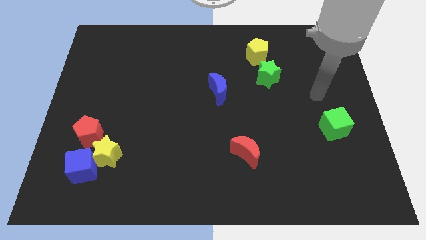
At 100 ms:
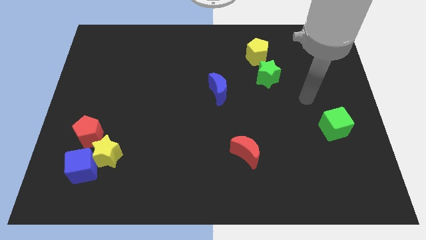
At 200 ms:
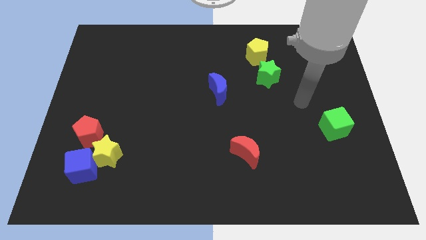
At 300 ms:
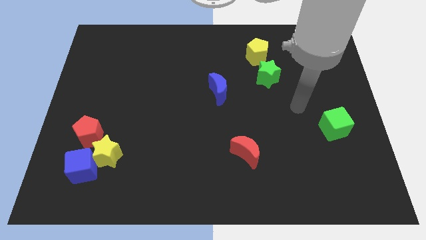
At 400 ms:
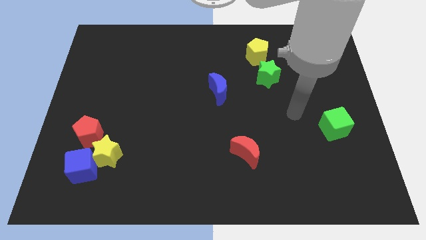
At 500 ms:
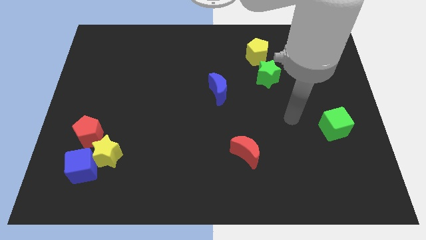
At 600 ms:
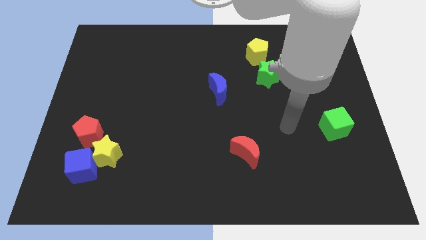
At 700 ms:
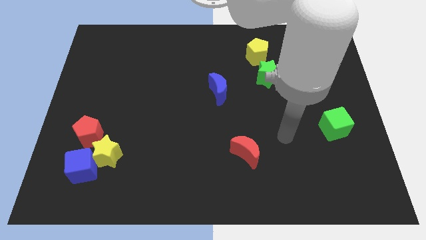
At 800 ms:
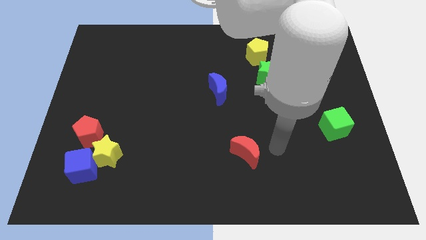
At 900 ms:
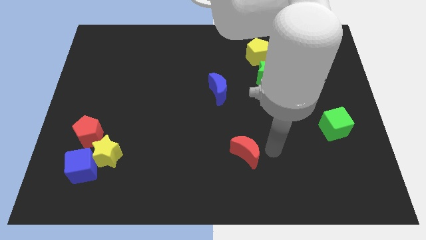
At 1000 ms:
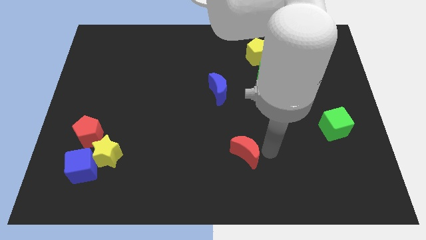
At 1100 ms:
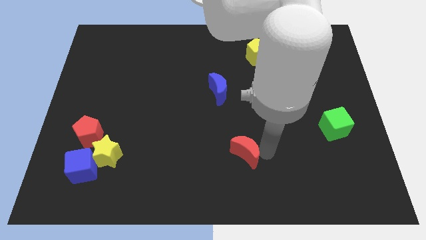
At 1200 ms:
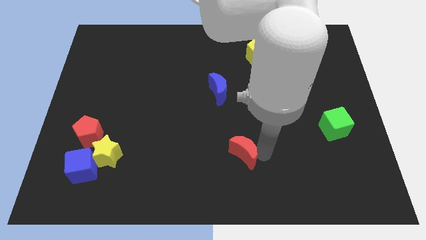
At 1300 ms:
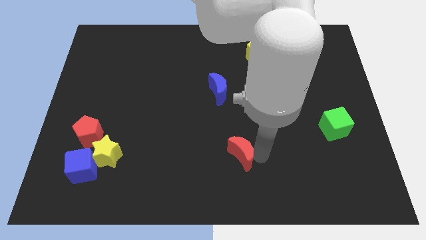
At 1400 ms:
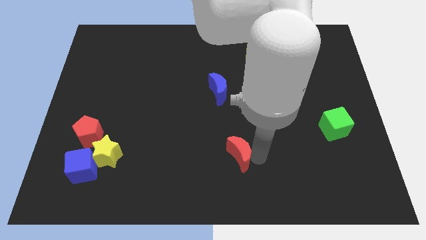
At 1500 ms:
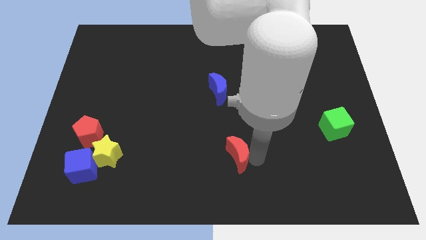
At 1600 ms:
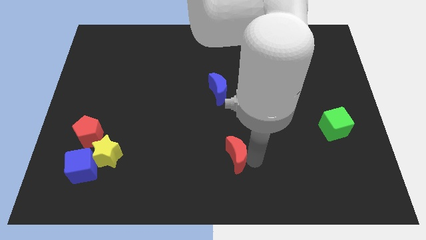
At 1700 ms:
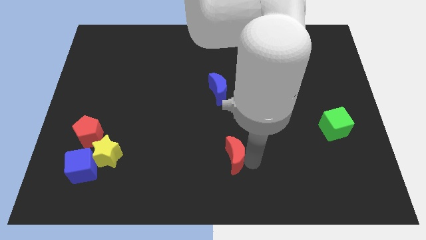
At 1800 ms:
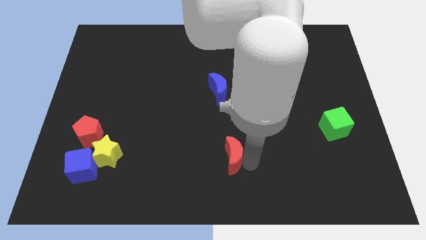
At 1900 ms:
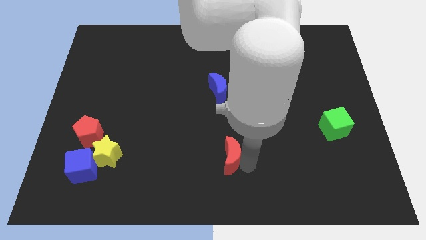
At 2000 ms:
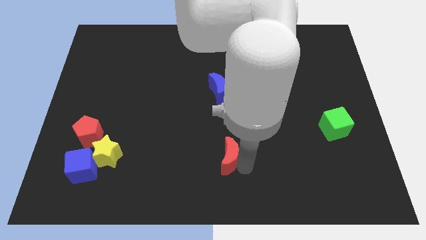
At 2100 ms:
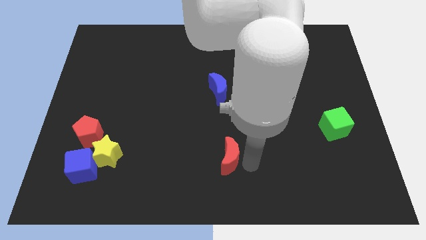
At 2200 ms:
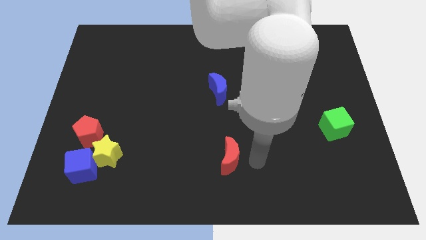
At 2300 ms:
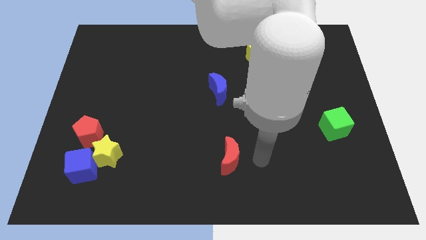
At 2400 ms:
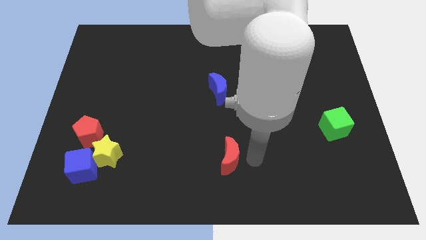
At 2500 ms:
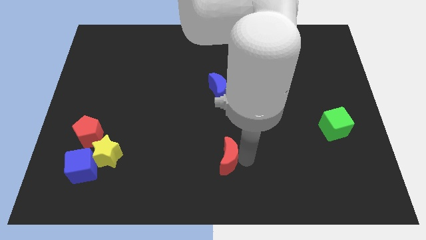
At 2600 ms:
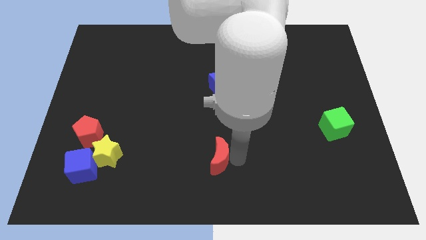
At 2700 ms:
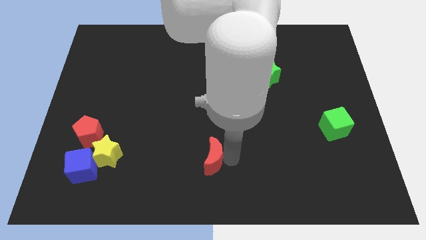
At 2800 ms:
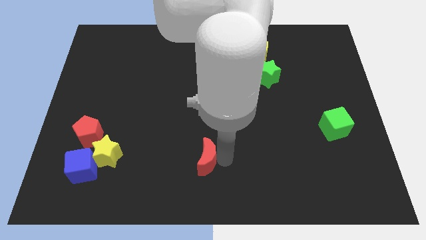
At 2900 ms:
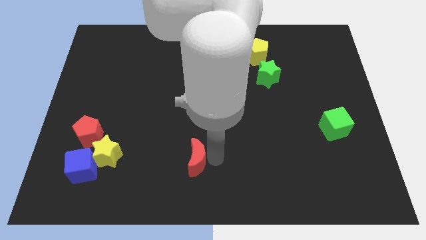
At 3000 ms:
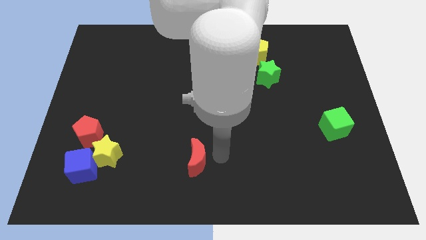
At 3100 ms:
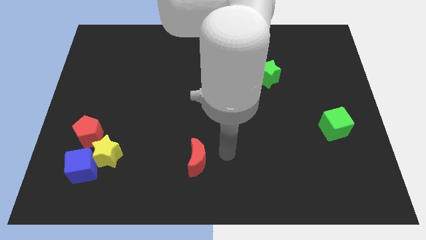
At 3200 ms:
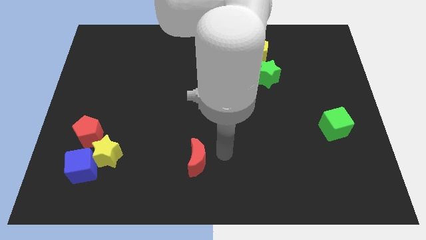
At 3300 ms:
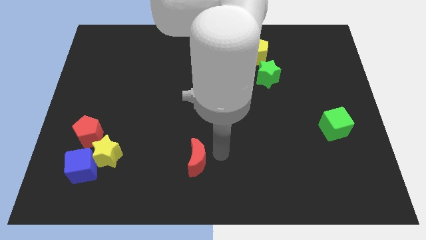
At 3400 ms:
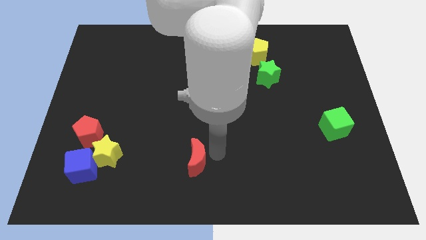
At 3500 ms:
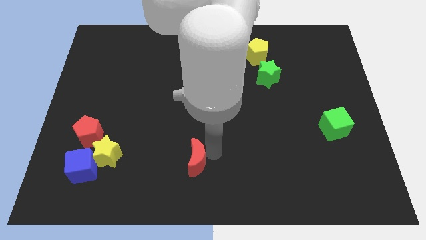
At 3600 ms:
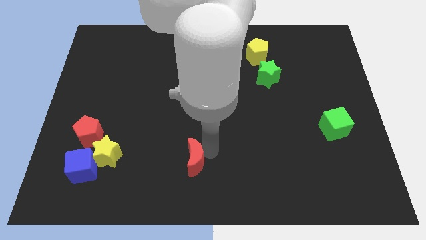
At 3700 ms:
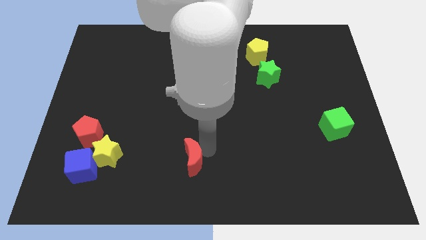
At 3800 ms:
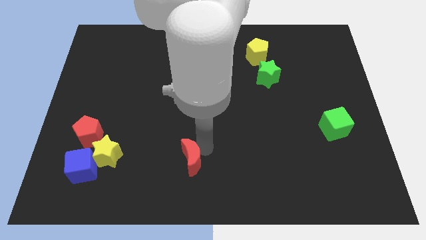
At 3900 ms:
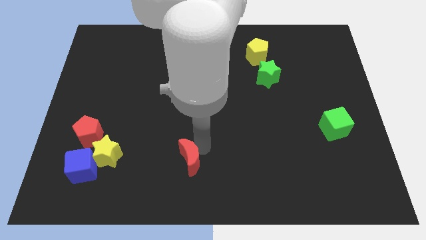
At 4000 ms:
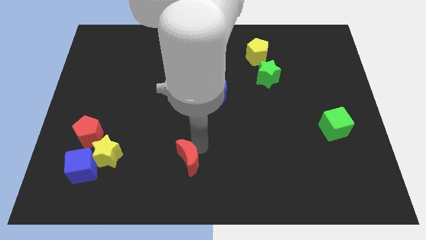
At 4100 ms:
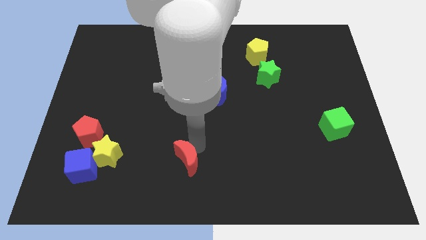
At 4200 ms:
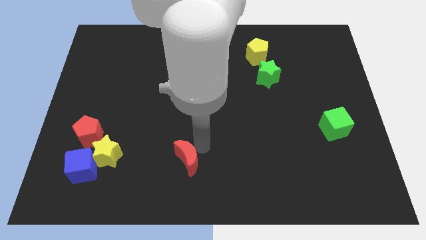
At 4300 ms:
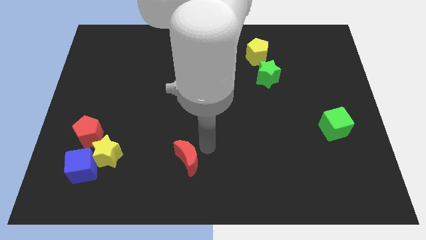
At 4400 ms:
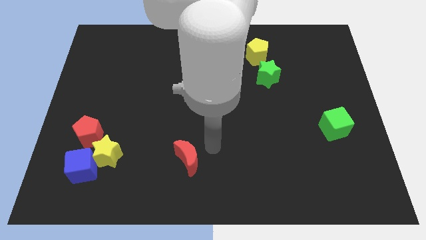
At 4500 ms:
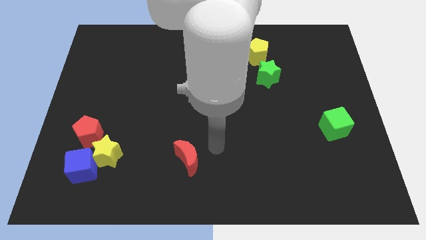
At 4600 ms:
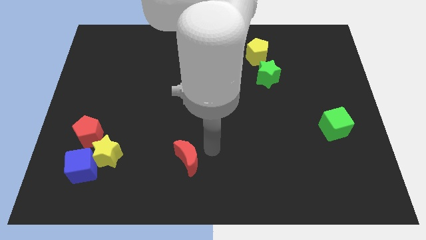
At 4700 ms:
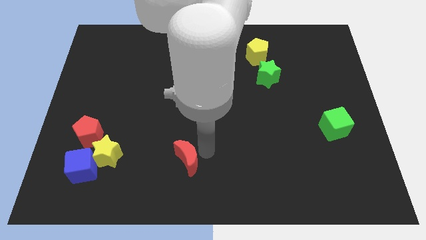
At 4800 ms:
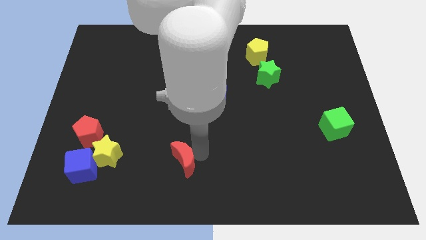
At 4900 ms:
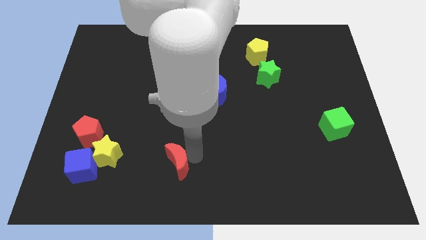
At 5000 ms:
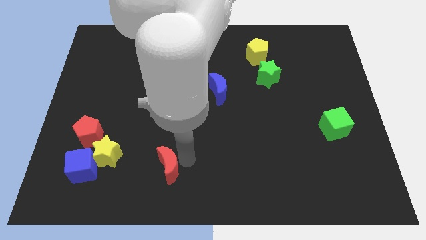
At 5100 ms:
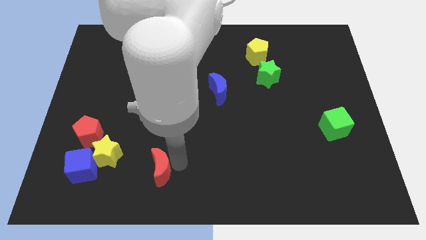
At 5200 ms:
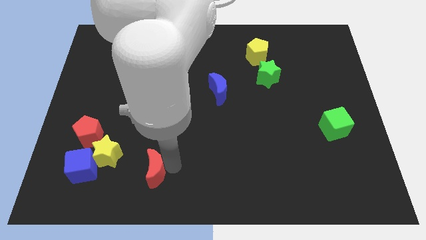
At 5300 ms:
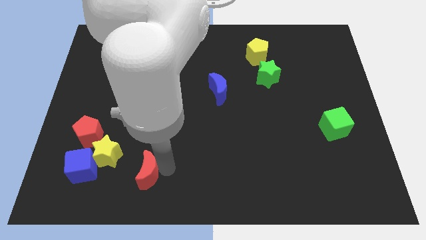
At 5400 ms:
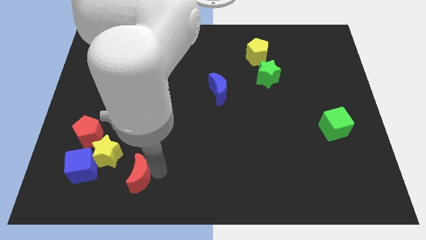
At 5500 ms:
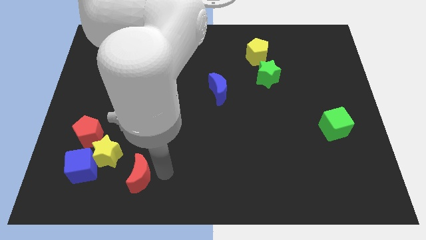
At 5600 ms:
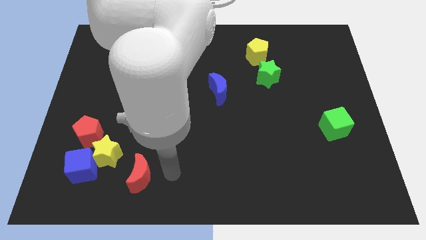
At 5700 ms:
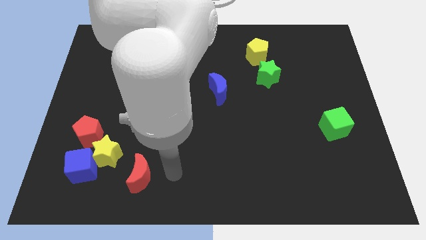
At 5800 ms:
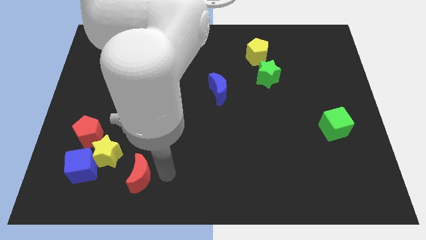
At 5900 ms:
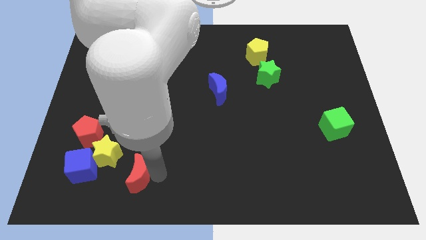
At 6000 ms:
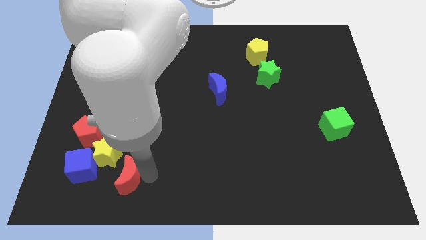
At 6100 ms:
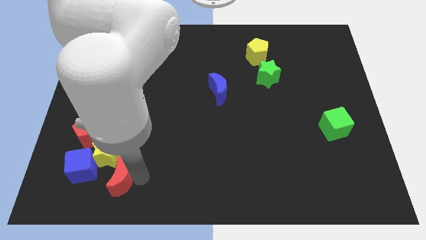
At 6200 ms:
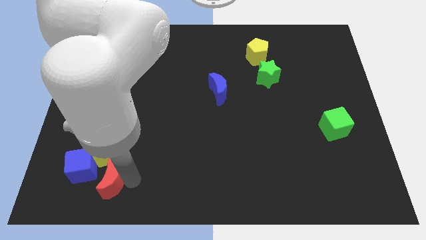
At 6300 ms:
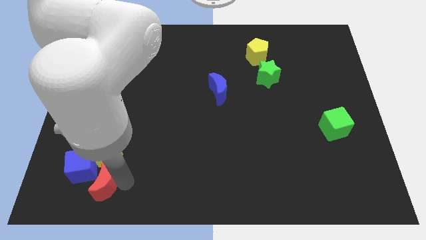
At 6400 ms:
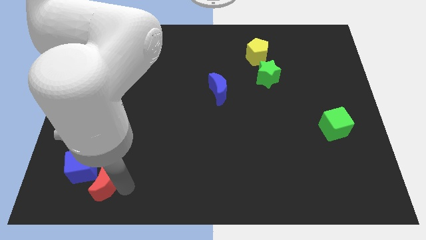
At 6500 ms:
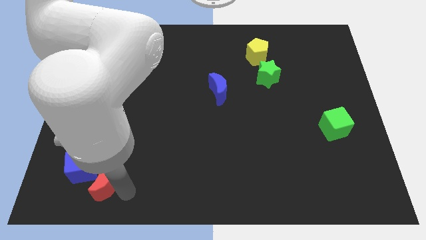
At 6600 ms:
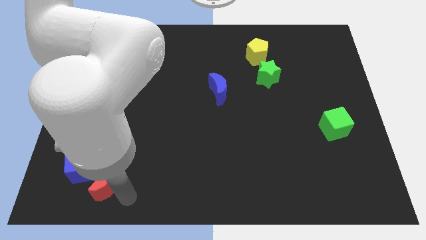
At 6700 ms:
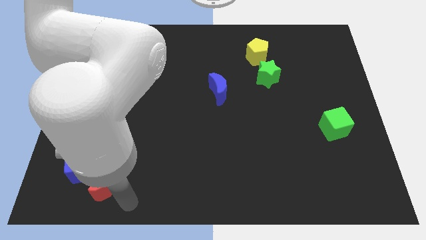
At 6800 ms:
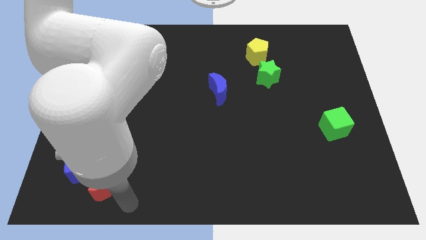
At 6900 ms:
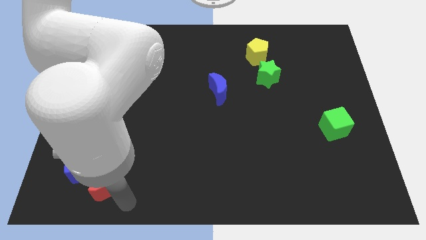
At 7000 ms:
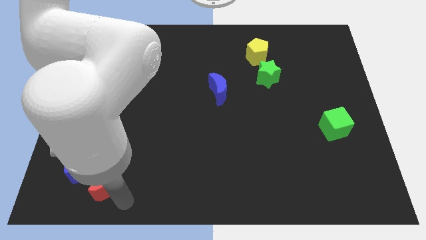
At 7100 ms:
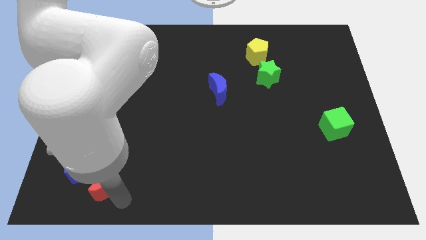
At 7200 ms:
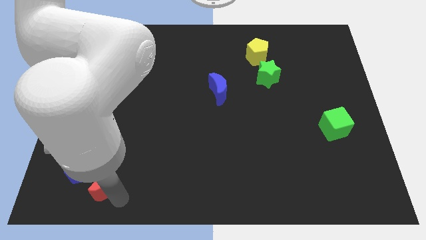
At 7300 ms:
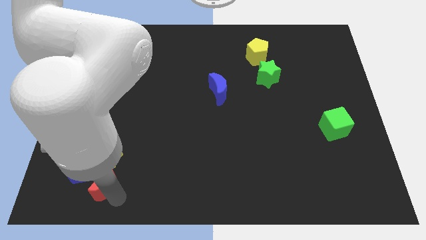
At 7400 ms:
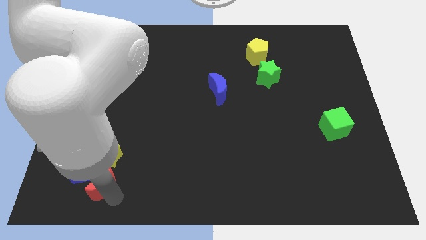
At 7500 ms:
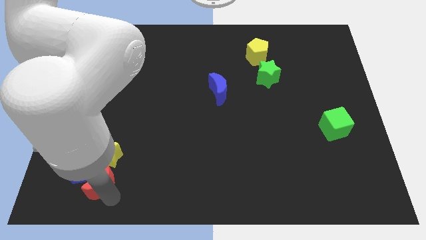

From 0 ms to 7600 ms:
put the red moon next to the blue cube
